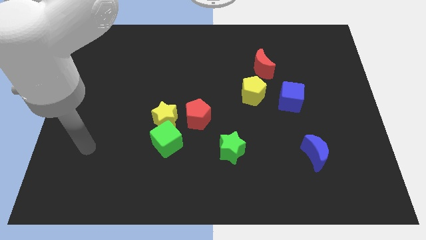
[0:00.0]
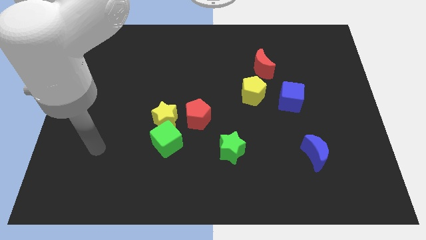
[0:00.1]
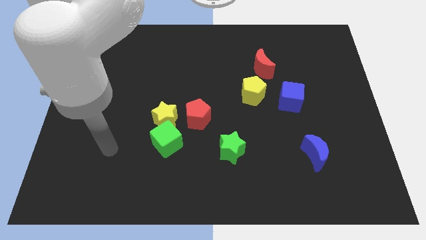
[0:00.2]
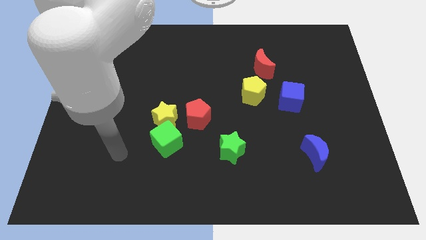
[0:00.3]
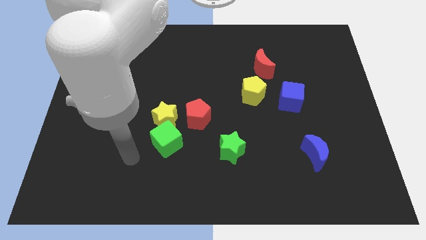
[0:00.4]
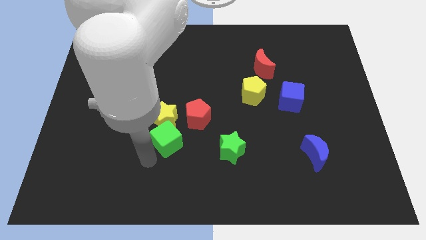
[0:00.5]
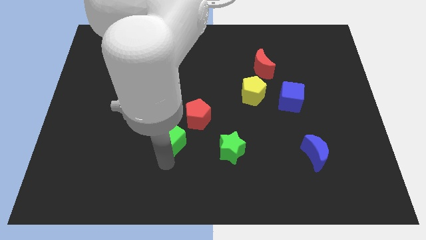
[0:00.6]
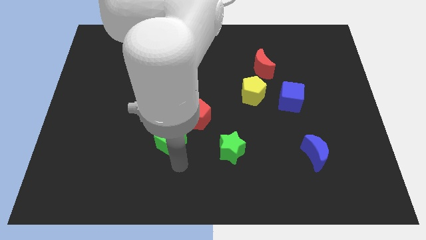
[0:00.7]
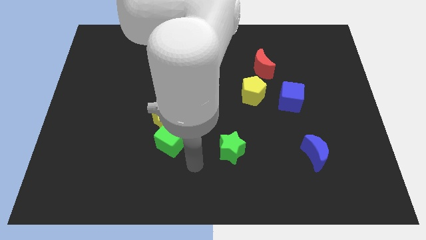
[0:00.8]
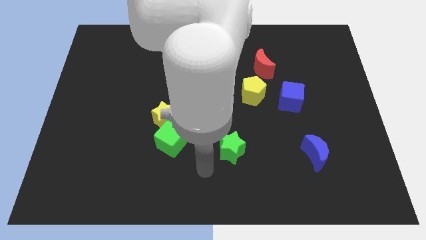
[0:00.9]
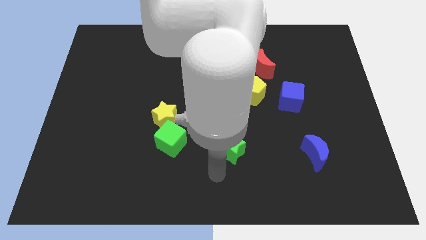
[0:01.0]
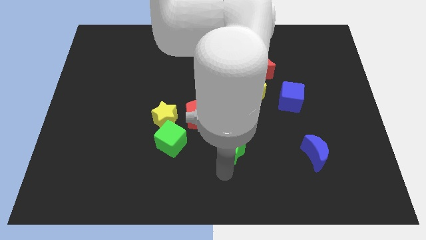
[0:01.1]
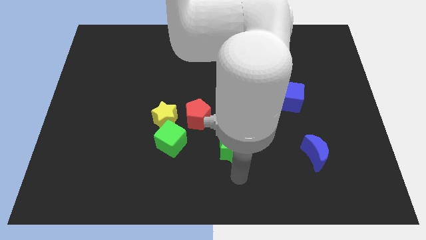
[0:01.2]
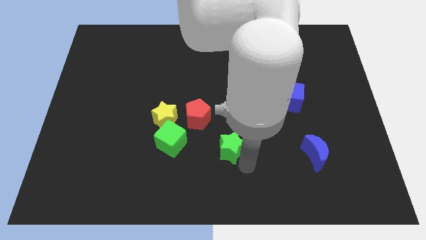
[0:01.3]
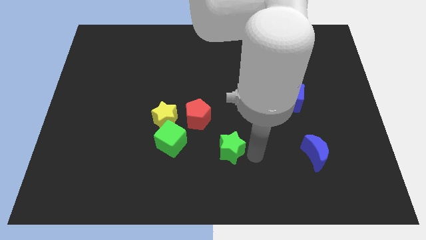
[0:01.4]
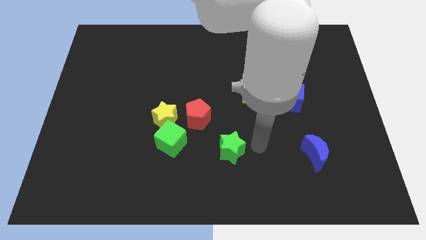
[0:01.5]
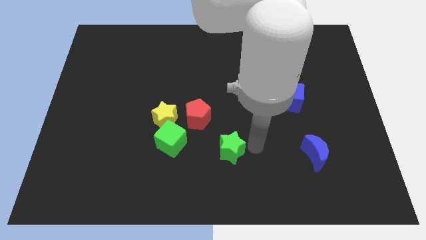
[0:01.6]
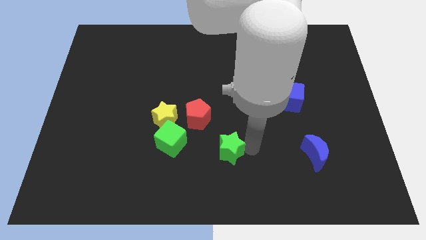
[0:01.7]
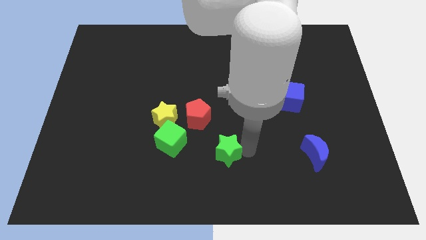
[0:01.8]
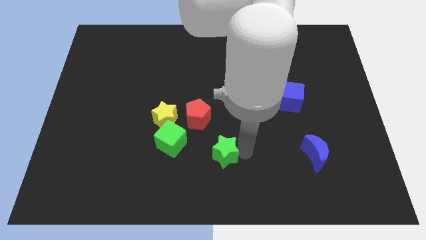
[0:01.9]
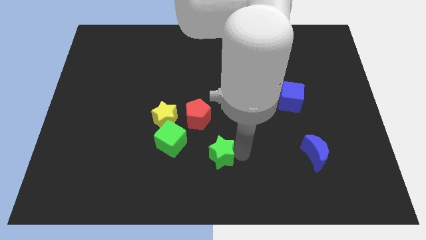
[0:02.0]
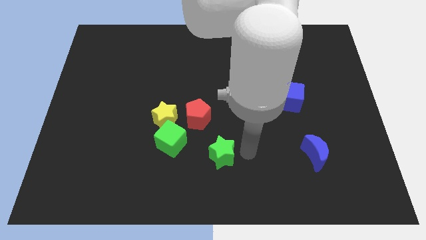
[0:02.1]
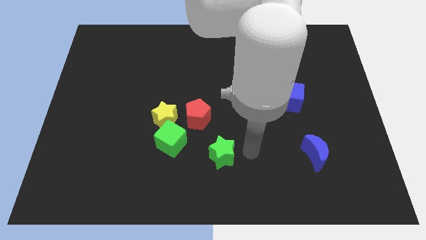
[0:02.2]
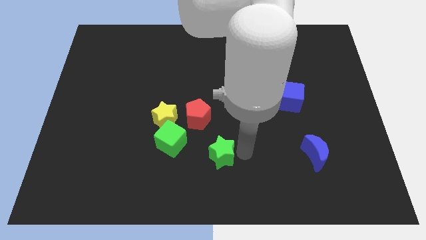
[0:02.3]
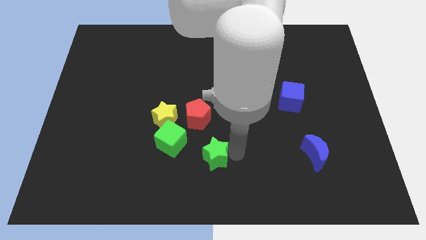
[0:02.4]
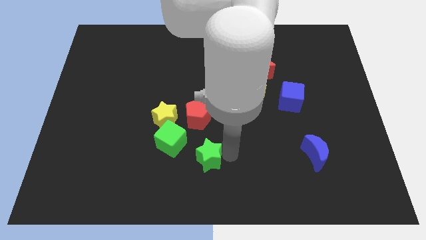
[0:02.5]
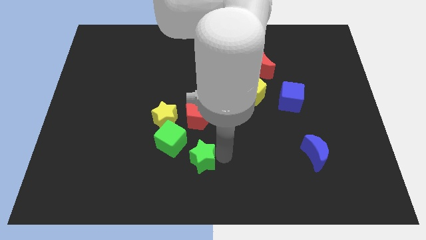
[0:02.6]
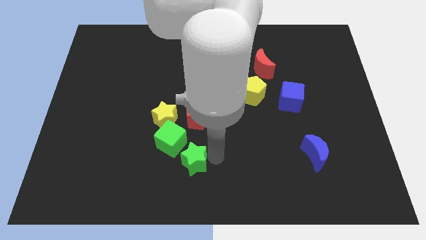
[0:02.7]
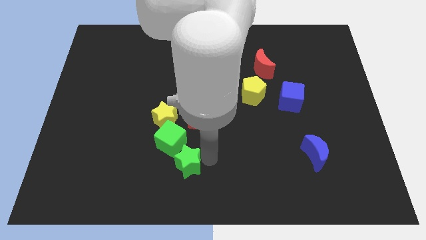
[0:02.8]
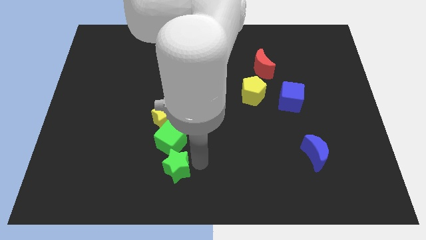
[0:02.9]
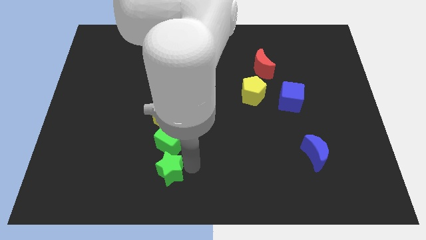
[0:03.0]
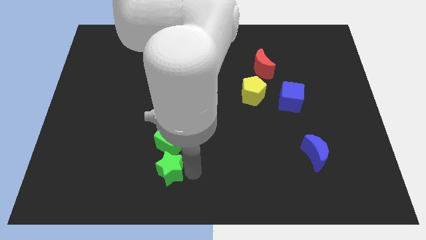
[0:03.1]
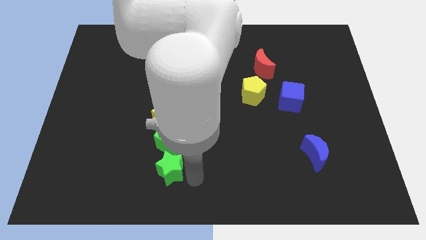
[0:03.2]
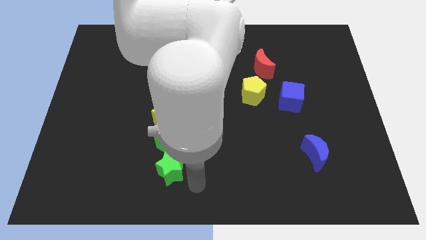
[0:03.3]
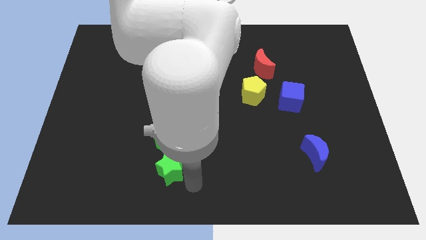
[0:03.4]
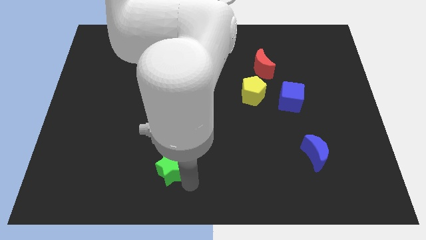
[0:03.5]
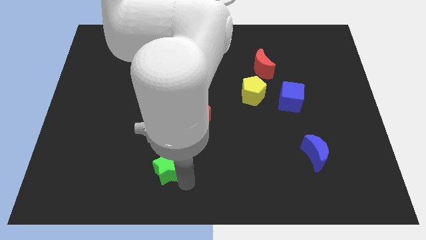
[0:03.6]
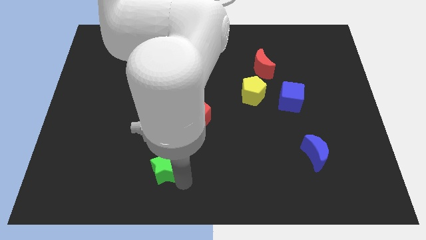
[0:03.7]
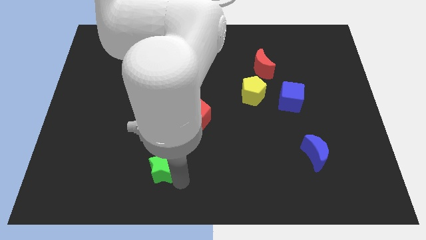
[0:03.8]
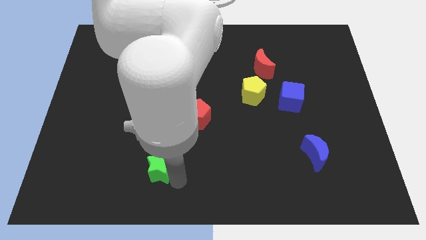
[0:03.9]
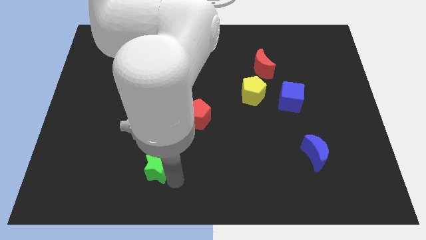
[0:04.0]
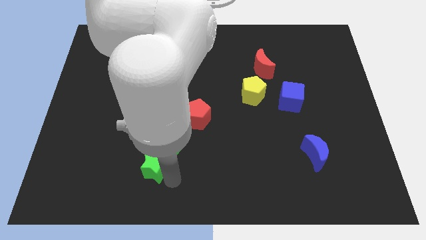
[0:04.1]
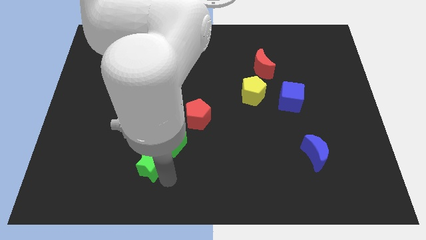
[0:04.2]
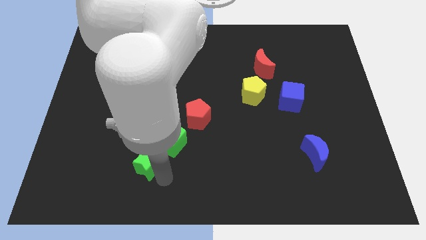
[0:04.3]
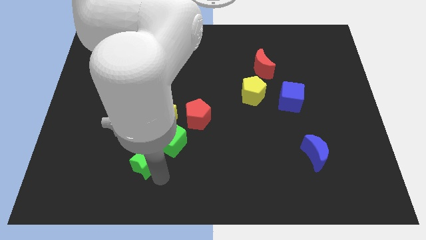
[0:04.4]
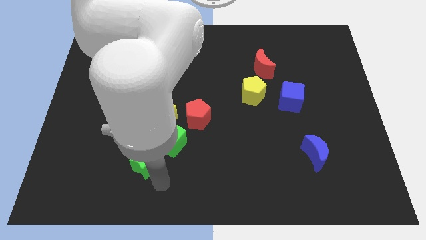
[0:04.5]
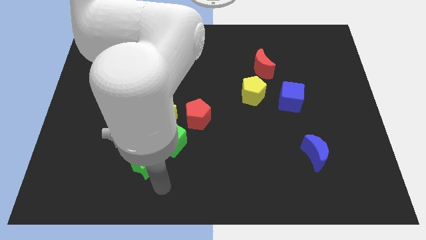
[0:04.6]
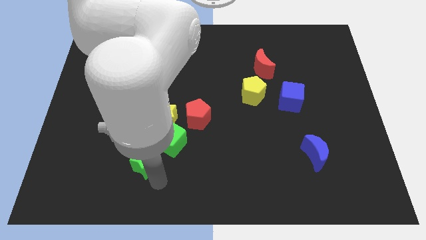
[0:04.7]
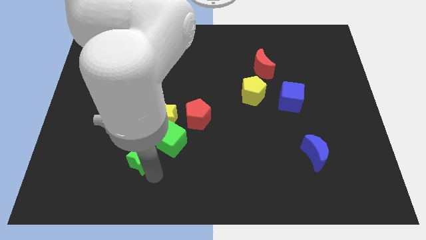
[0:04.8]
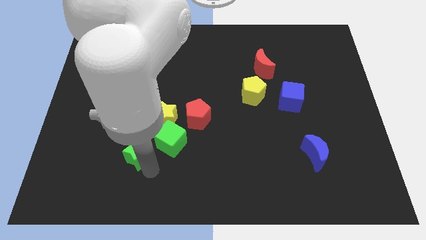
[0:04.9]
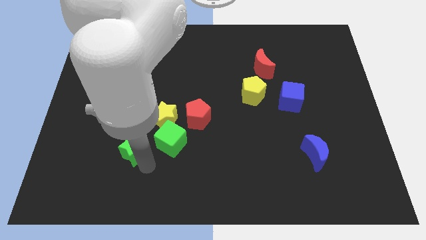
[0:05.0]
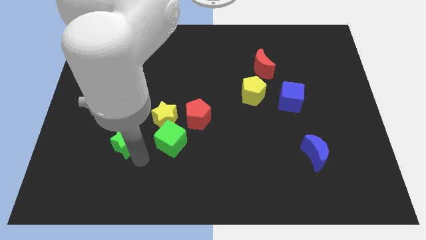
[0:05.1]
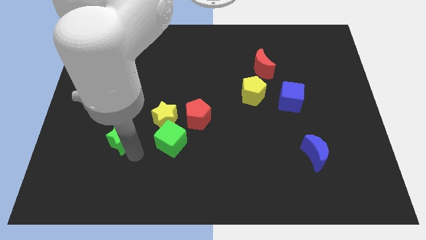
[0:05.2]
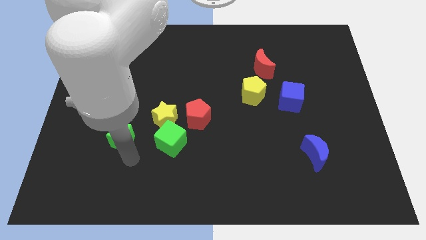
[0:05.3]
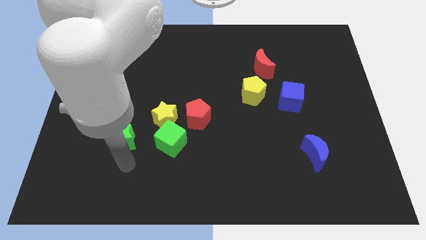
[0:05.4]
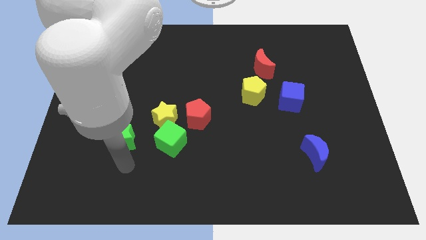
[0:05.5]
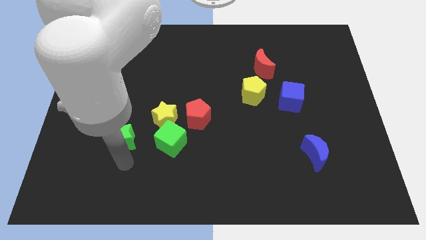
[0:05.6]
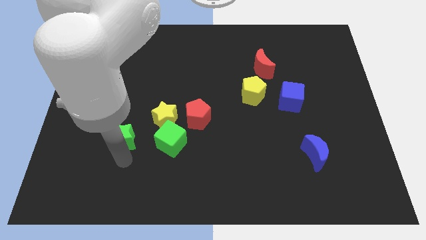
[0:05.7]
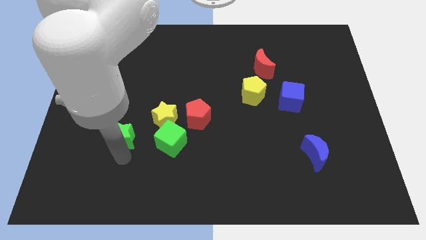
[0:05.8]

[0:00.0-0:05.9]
push the green star just left of the yellow star

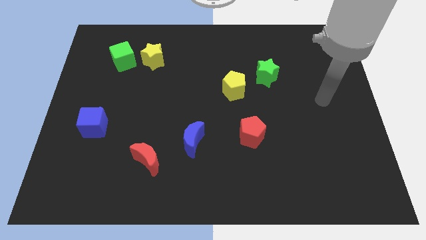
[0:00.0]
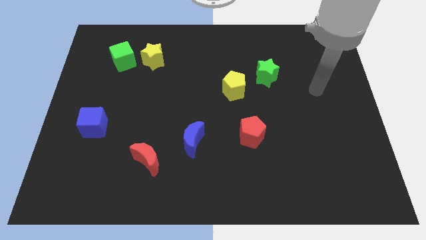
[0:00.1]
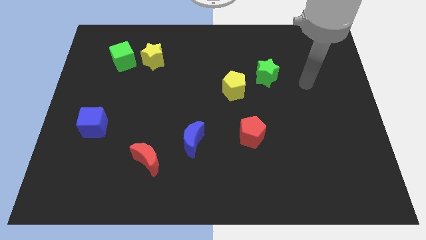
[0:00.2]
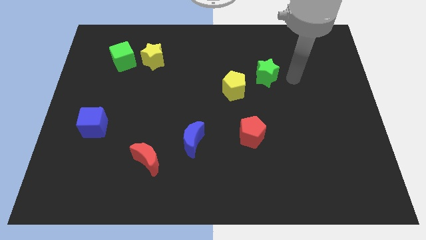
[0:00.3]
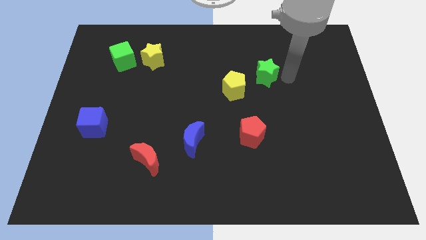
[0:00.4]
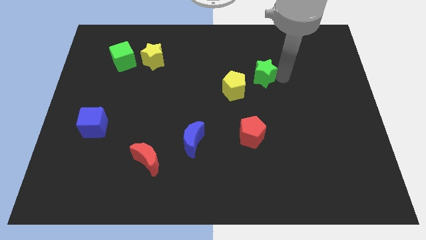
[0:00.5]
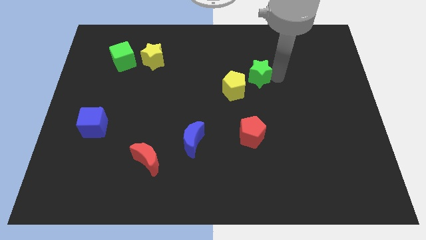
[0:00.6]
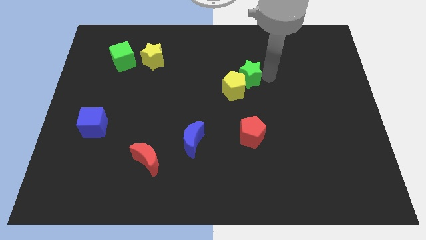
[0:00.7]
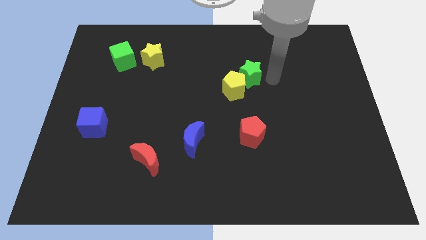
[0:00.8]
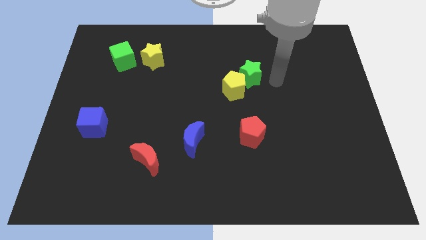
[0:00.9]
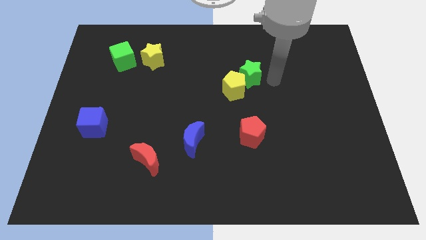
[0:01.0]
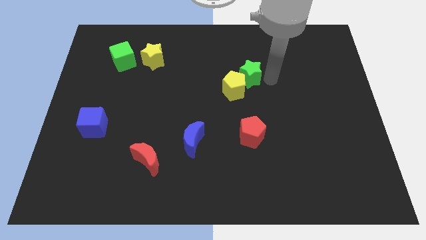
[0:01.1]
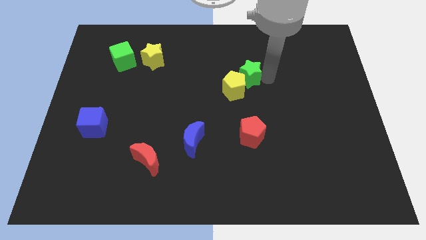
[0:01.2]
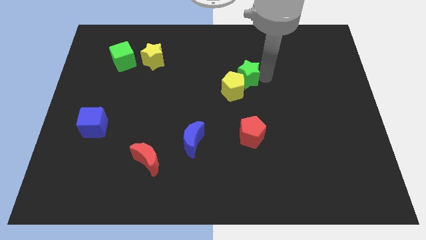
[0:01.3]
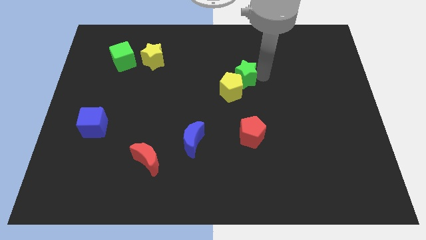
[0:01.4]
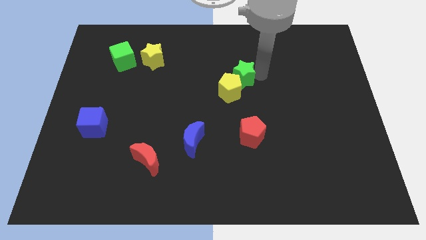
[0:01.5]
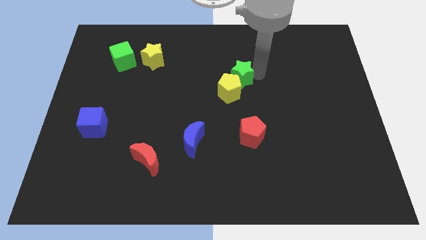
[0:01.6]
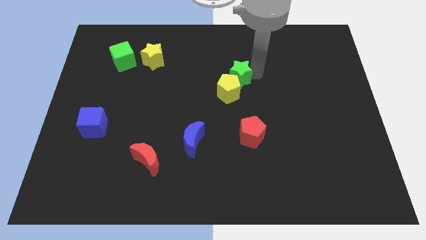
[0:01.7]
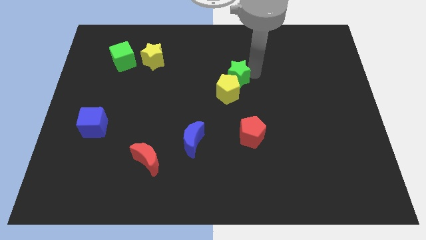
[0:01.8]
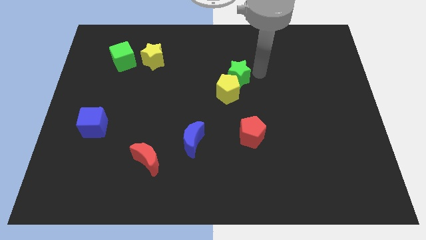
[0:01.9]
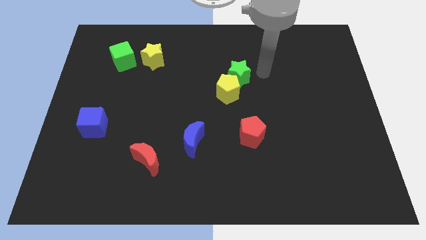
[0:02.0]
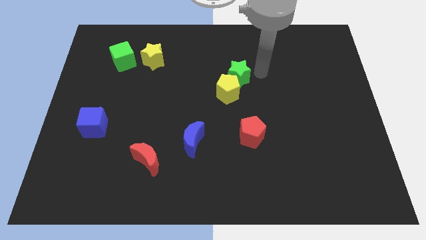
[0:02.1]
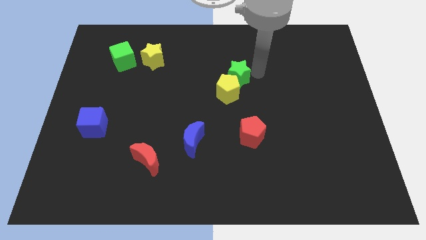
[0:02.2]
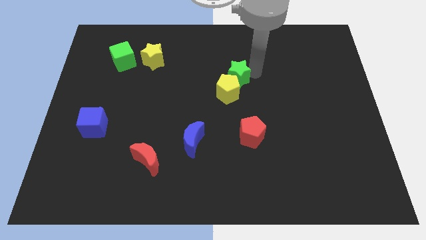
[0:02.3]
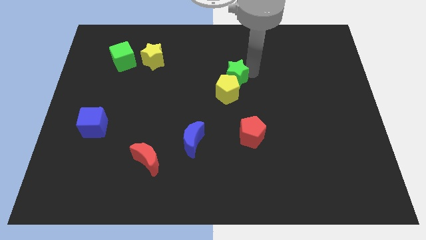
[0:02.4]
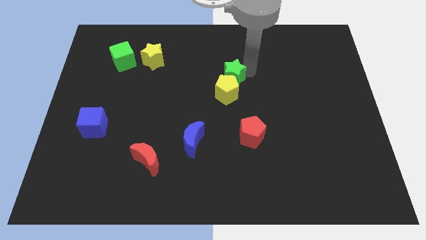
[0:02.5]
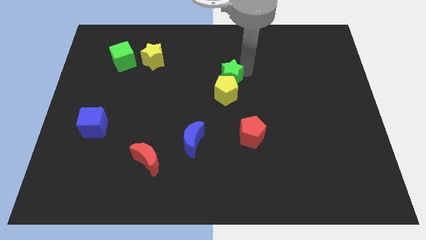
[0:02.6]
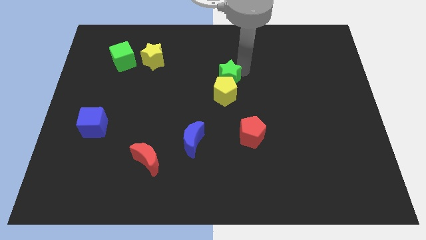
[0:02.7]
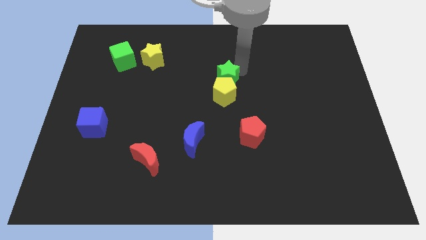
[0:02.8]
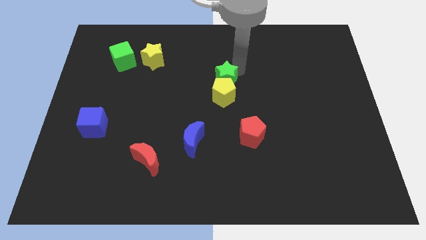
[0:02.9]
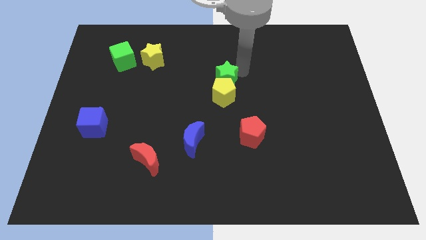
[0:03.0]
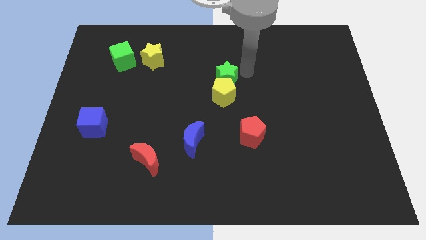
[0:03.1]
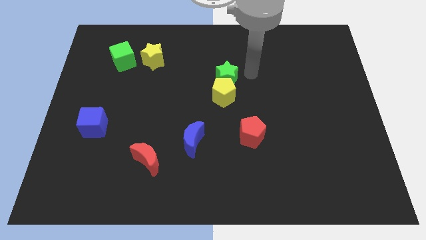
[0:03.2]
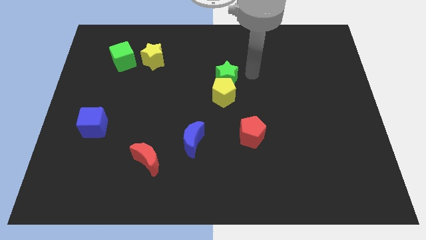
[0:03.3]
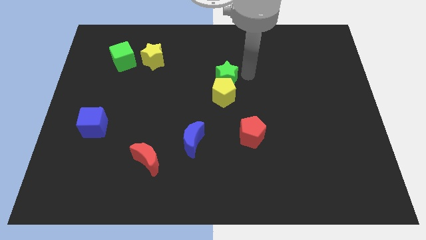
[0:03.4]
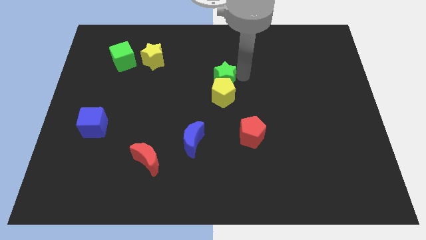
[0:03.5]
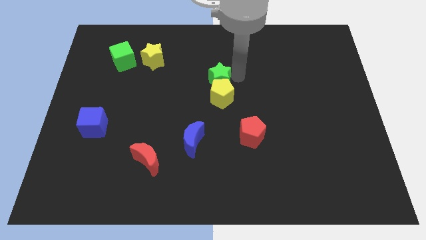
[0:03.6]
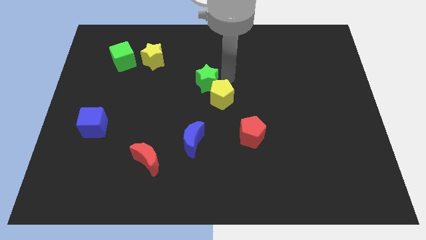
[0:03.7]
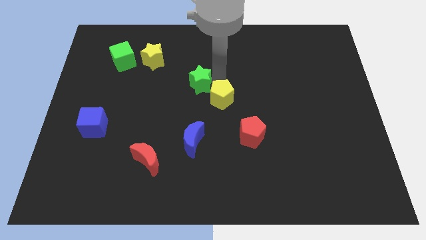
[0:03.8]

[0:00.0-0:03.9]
put the green star just left of the yellow pentagon
